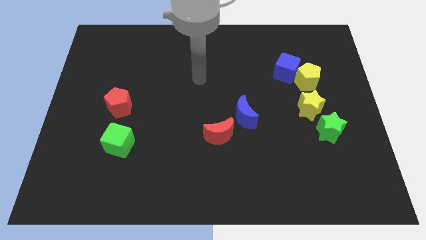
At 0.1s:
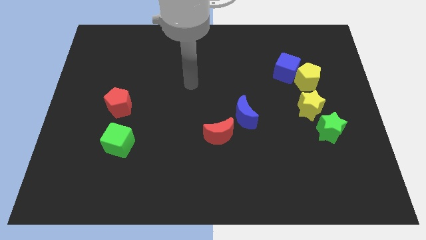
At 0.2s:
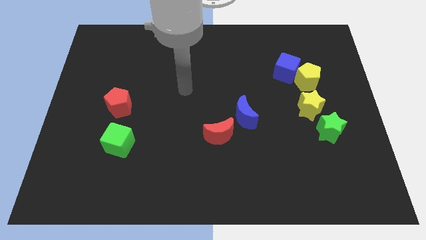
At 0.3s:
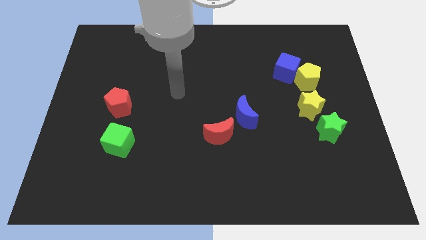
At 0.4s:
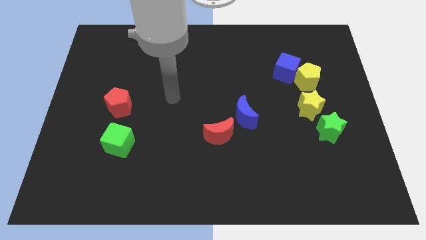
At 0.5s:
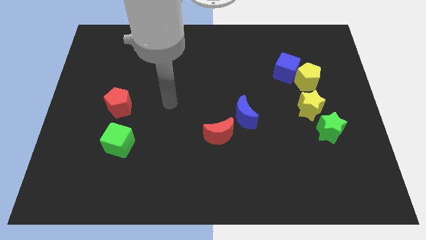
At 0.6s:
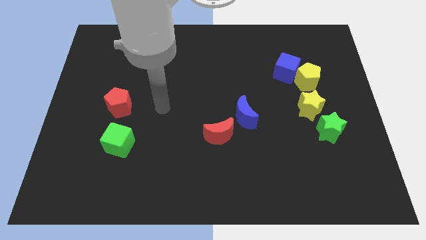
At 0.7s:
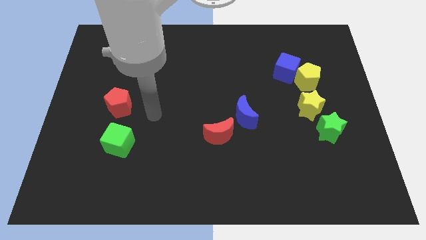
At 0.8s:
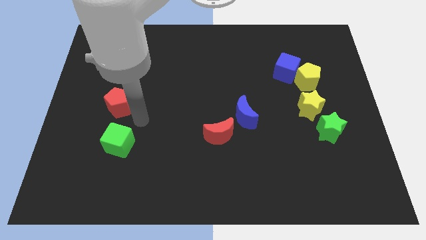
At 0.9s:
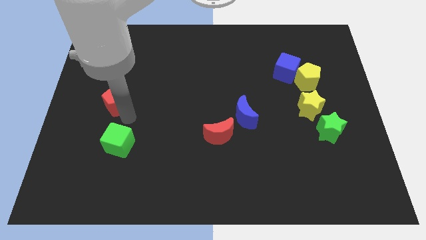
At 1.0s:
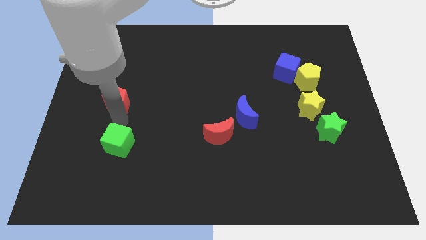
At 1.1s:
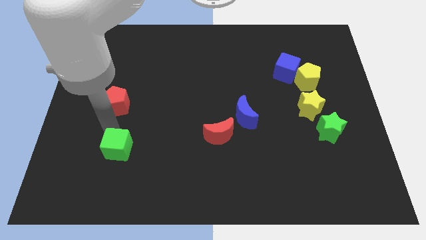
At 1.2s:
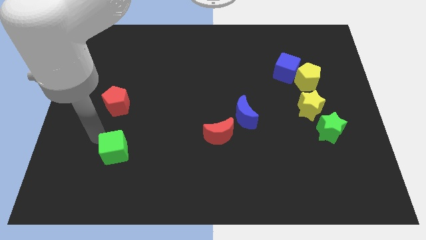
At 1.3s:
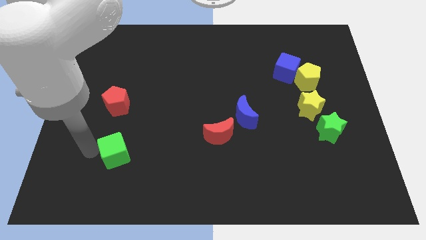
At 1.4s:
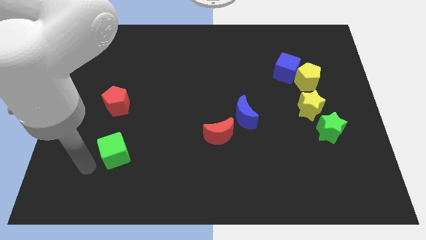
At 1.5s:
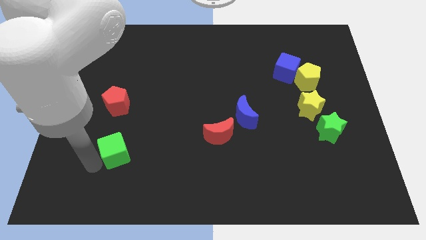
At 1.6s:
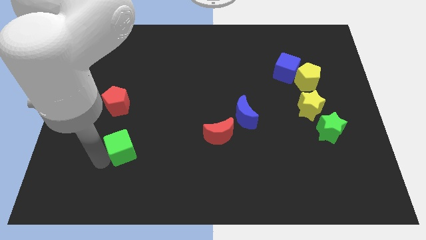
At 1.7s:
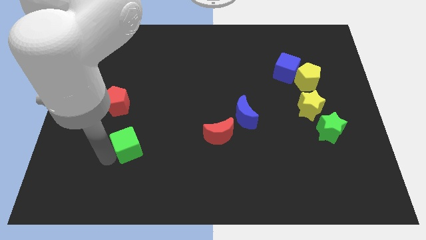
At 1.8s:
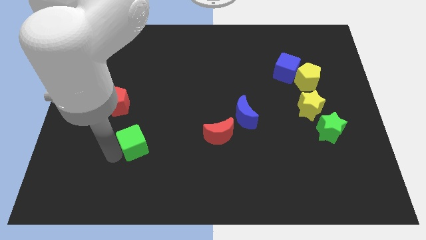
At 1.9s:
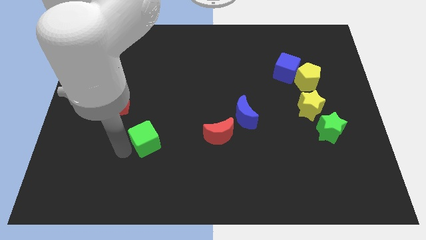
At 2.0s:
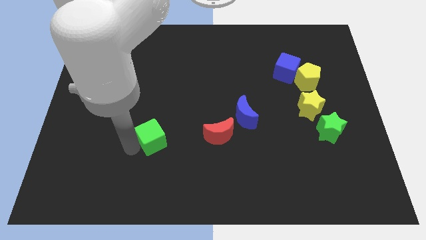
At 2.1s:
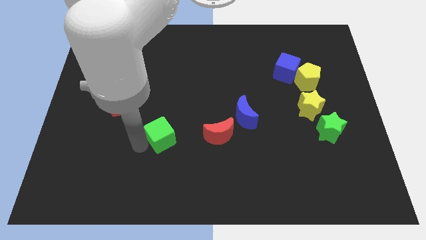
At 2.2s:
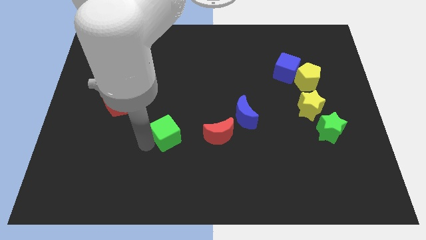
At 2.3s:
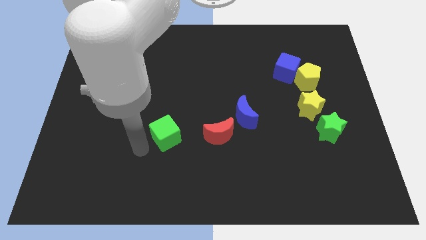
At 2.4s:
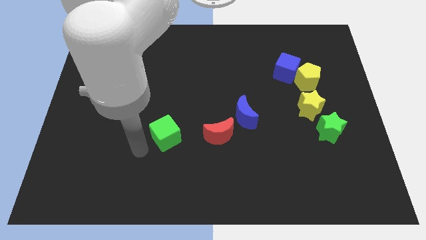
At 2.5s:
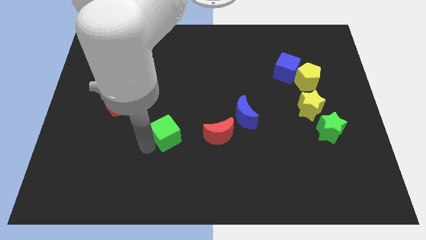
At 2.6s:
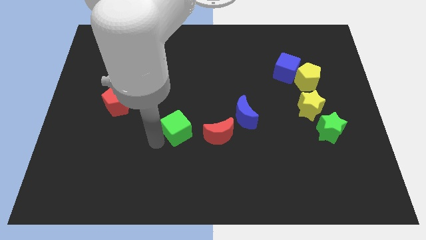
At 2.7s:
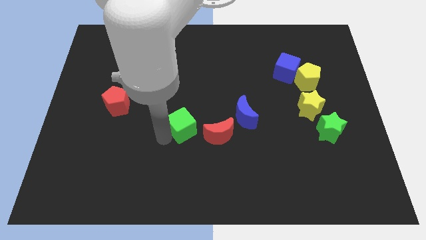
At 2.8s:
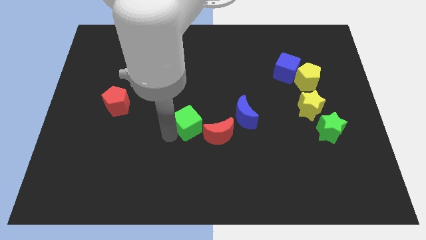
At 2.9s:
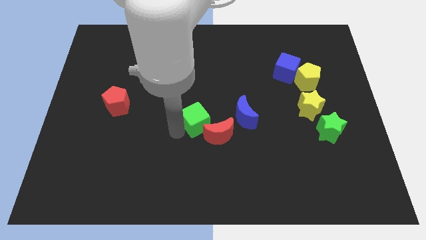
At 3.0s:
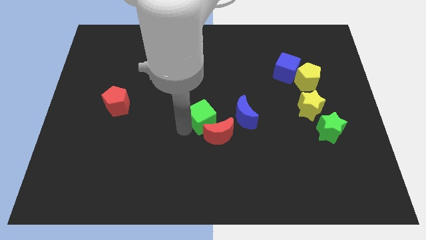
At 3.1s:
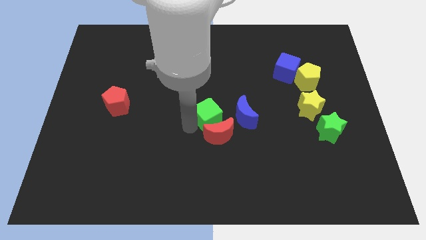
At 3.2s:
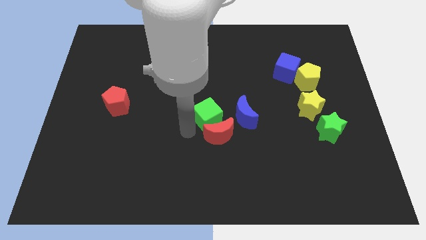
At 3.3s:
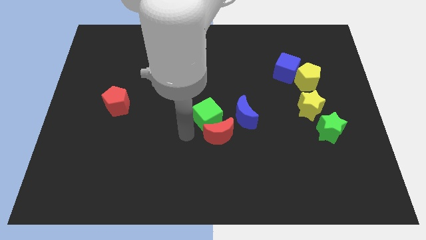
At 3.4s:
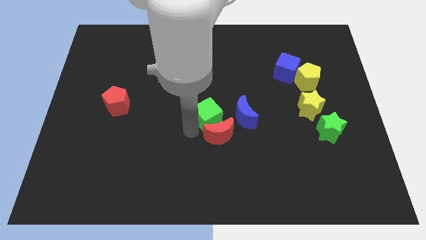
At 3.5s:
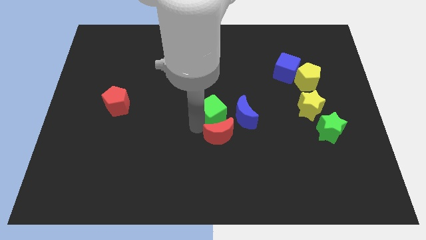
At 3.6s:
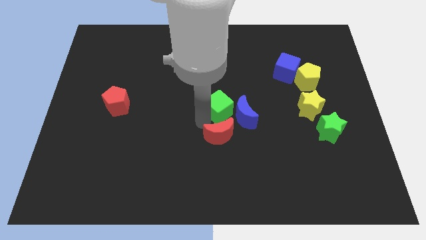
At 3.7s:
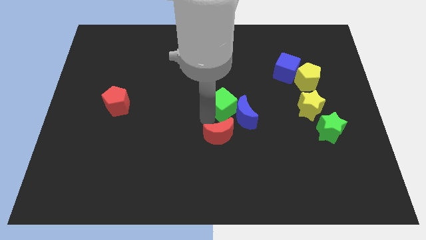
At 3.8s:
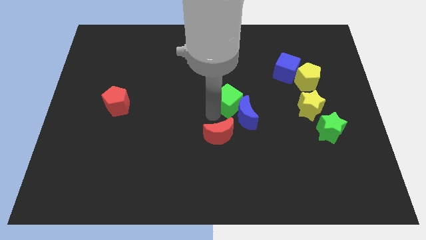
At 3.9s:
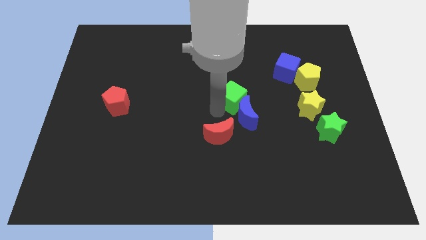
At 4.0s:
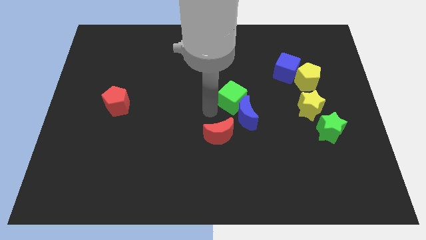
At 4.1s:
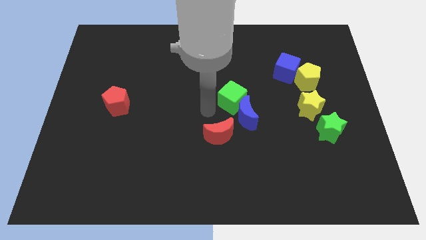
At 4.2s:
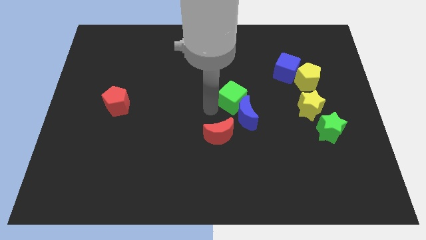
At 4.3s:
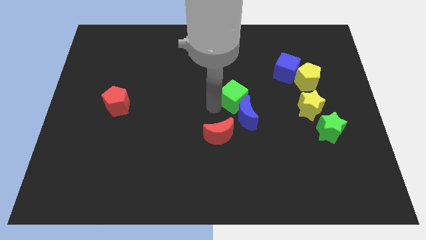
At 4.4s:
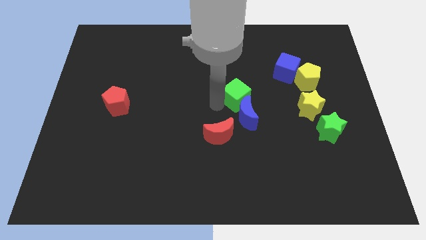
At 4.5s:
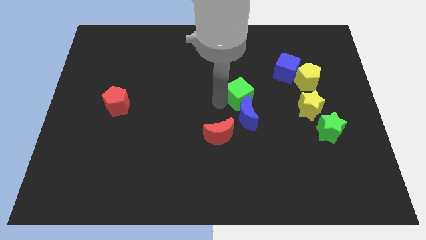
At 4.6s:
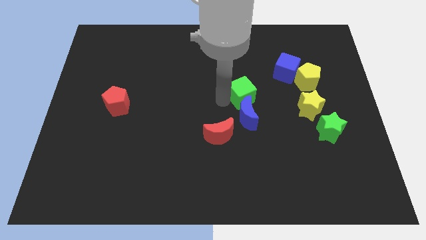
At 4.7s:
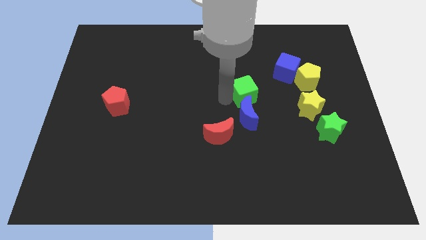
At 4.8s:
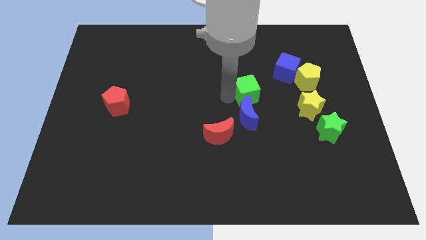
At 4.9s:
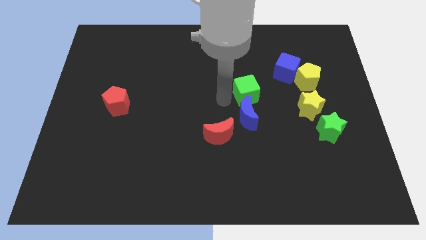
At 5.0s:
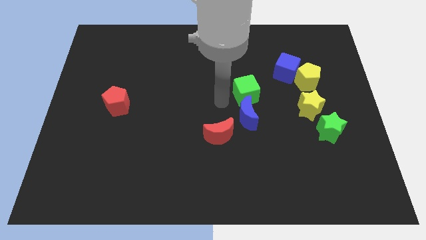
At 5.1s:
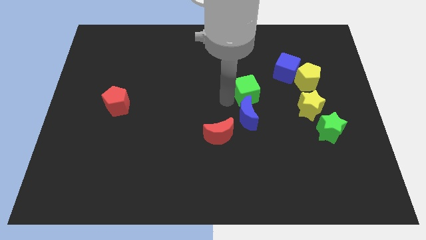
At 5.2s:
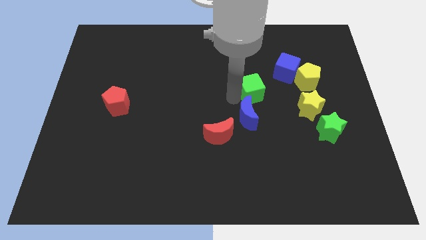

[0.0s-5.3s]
slide the green cube to the bottom left of the blue cube

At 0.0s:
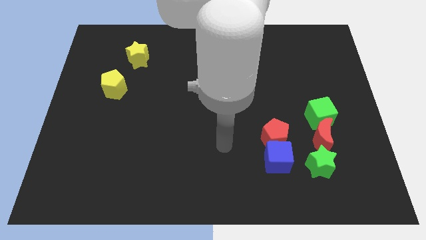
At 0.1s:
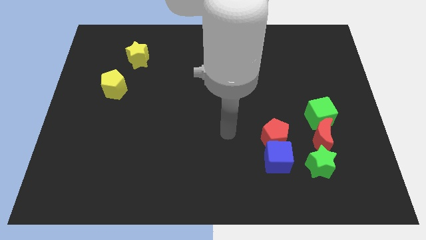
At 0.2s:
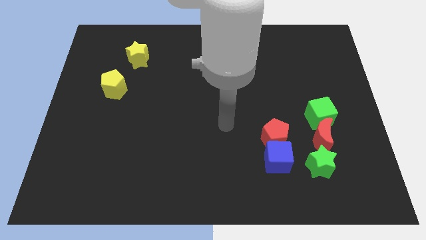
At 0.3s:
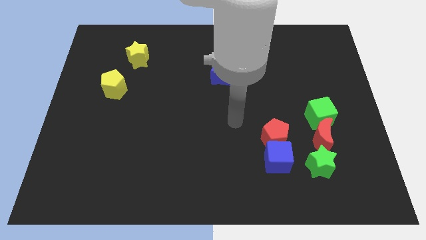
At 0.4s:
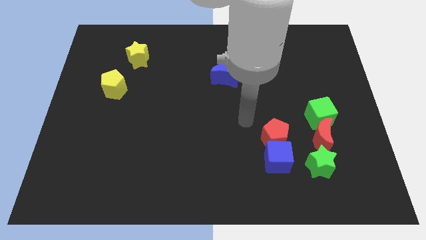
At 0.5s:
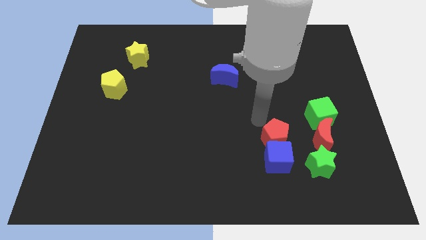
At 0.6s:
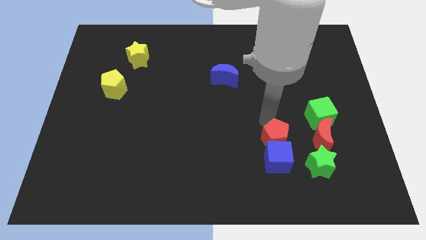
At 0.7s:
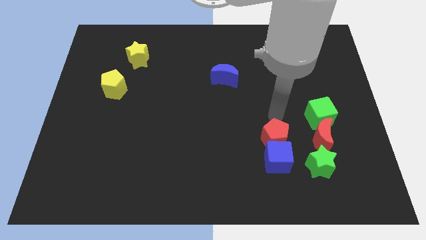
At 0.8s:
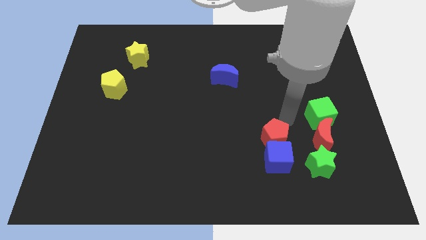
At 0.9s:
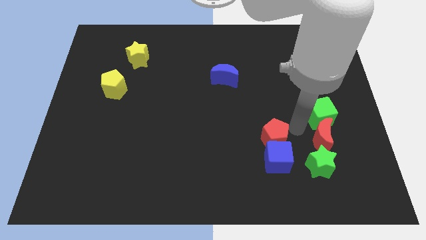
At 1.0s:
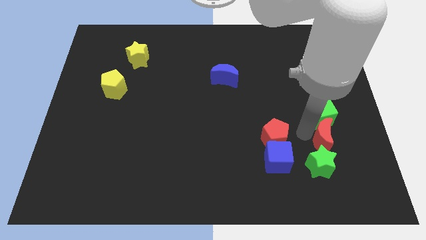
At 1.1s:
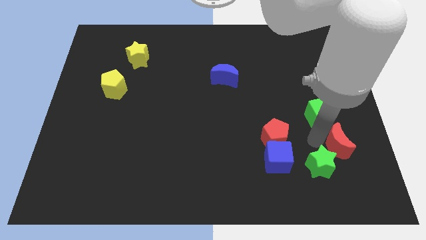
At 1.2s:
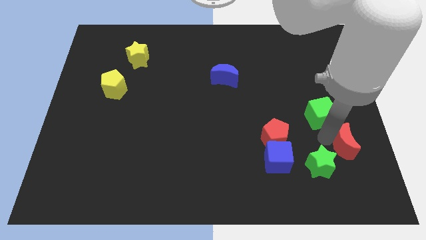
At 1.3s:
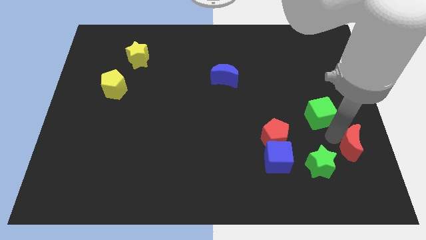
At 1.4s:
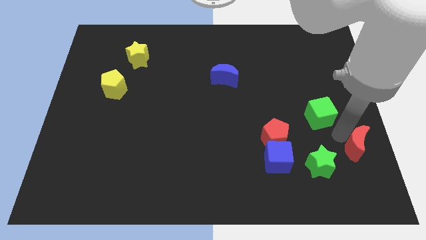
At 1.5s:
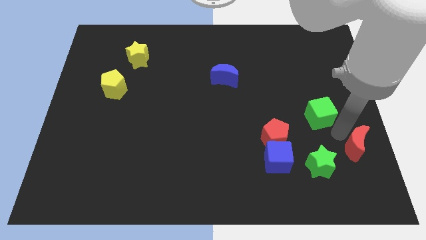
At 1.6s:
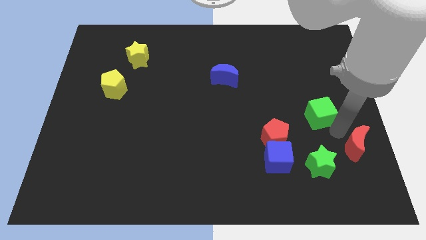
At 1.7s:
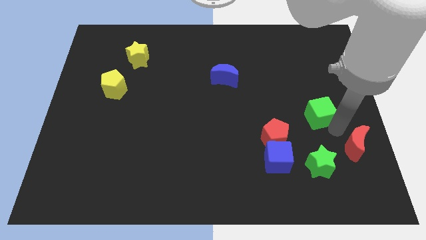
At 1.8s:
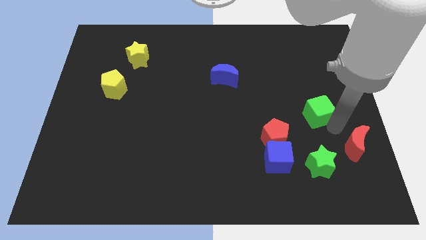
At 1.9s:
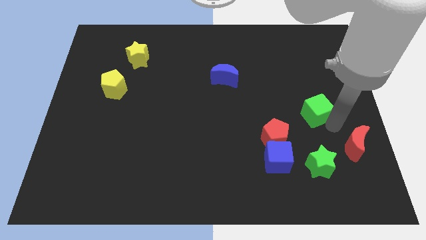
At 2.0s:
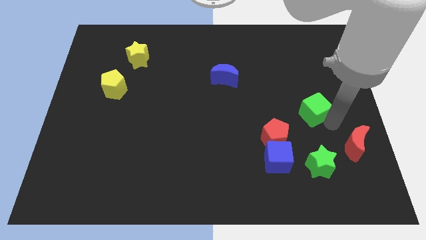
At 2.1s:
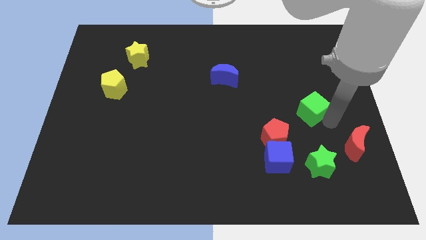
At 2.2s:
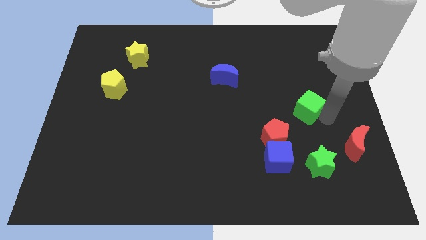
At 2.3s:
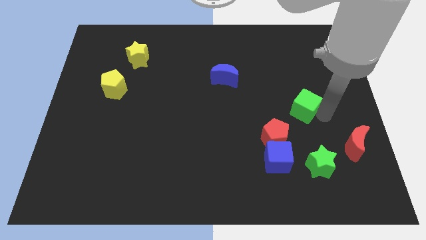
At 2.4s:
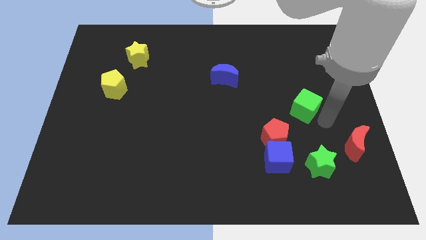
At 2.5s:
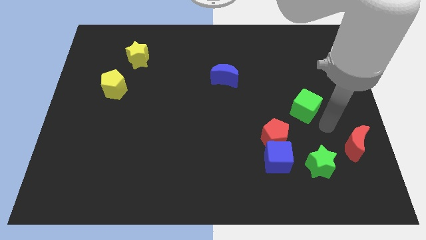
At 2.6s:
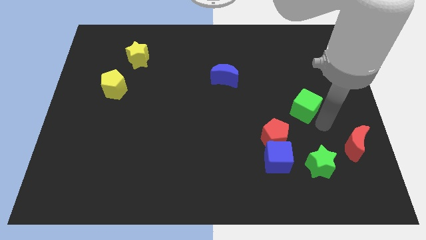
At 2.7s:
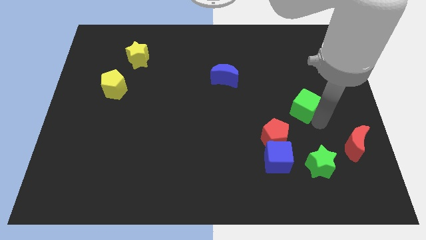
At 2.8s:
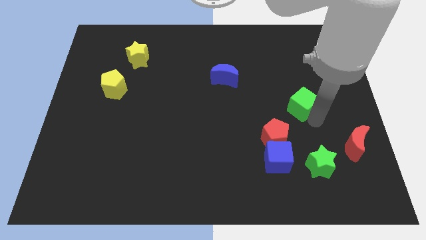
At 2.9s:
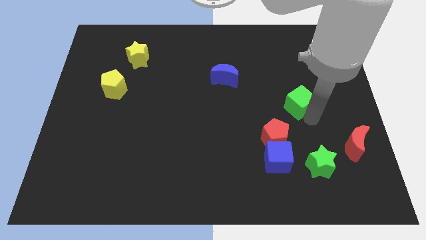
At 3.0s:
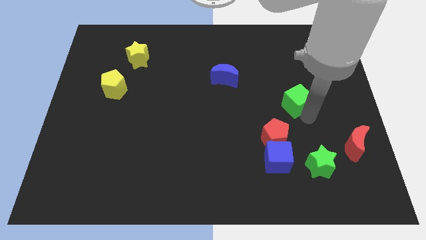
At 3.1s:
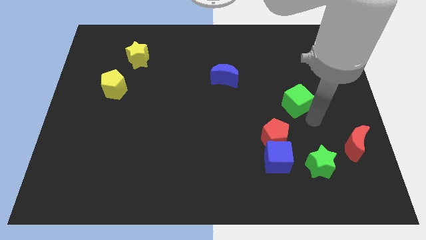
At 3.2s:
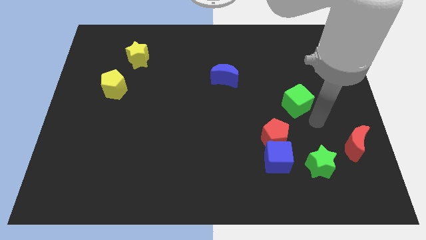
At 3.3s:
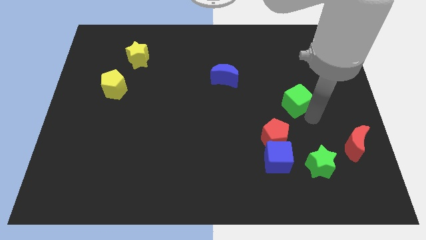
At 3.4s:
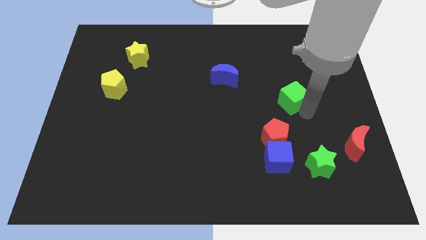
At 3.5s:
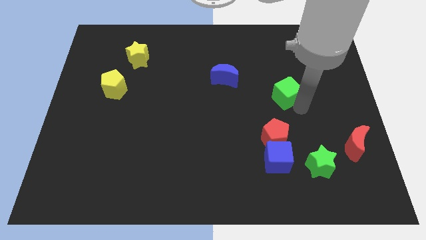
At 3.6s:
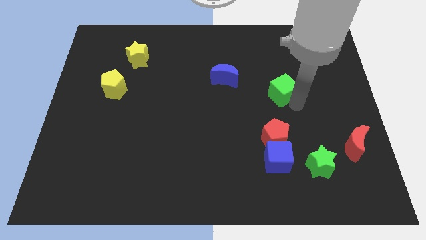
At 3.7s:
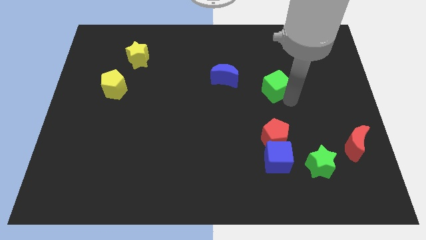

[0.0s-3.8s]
put the green cube right of the blue moon
